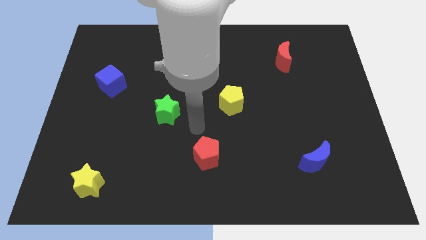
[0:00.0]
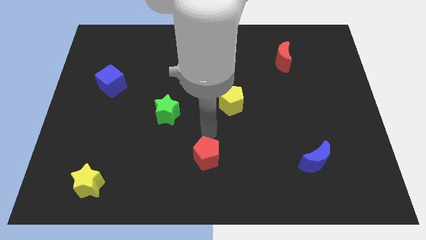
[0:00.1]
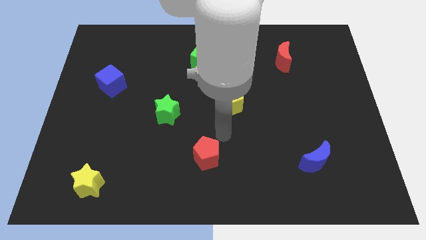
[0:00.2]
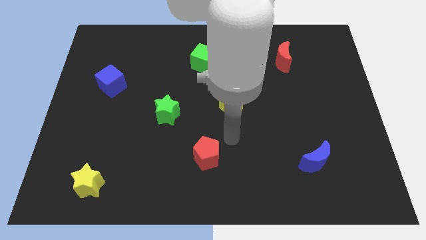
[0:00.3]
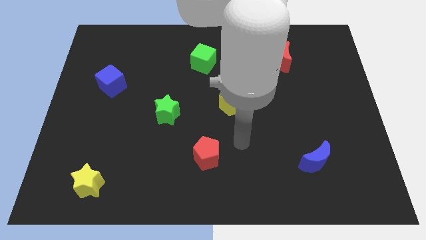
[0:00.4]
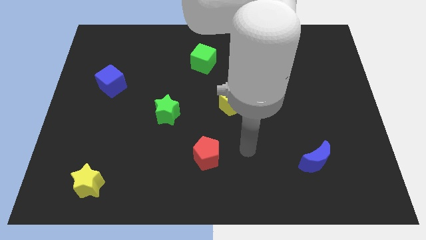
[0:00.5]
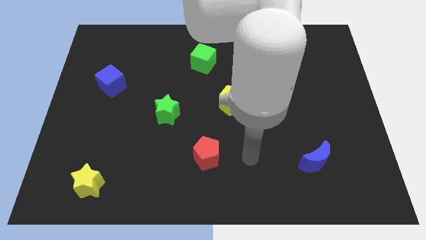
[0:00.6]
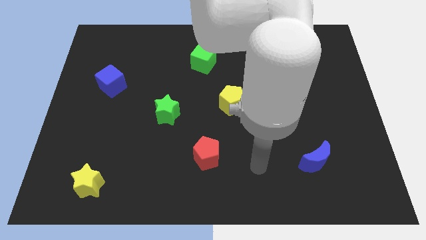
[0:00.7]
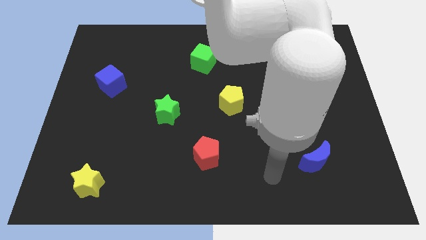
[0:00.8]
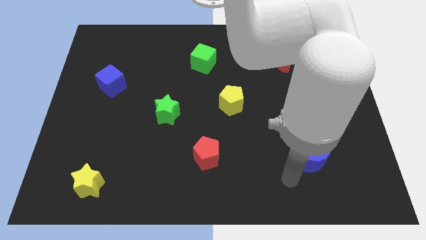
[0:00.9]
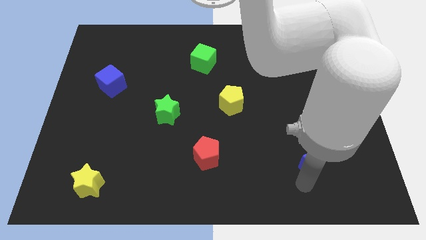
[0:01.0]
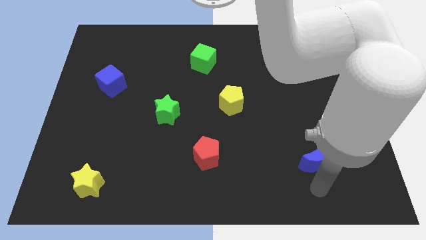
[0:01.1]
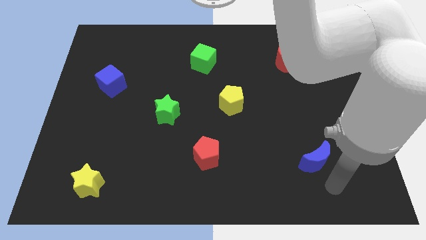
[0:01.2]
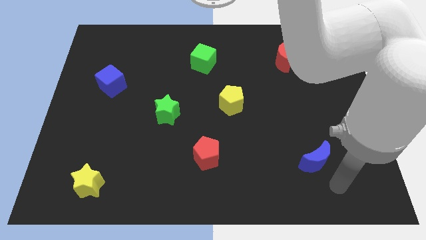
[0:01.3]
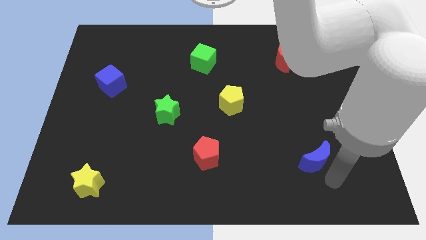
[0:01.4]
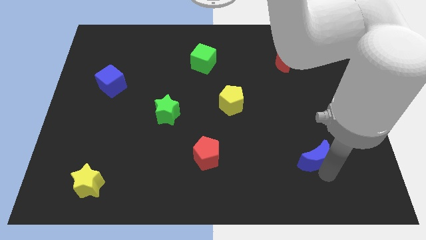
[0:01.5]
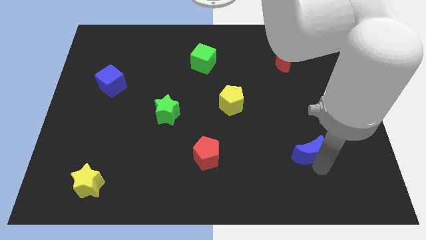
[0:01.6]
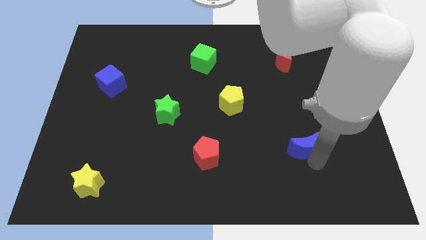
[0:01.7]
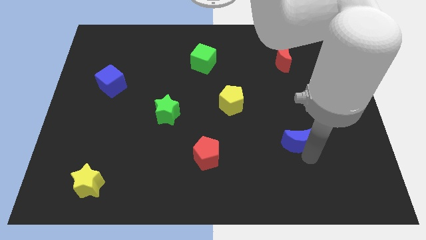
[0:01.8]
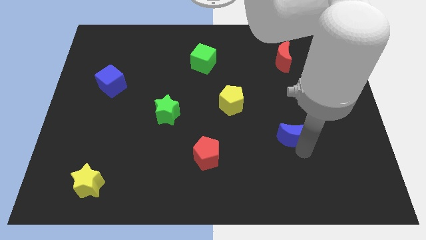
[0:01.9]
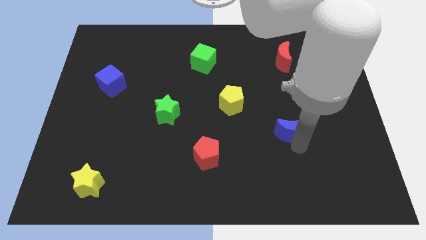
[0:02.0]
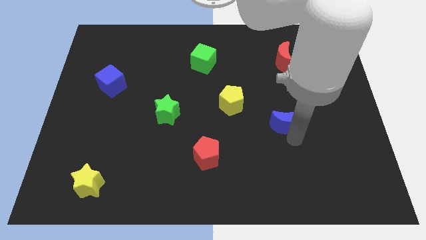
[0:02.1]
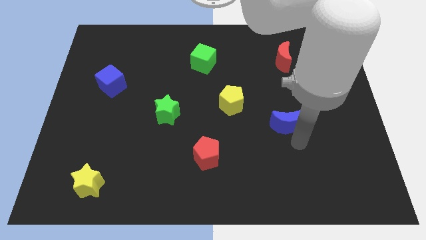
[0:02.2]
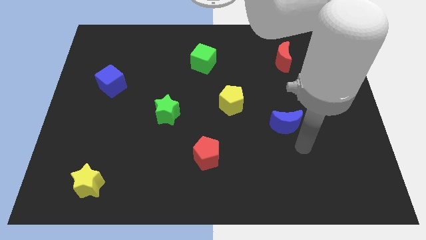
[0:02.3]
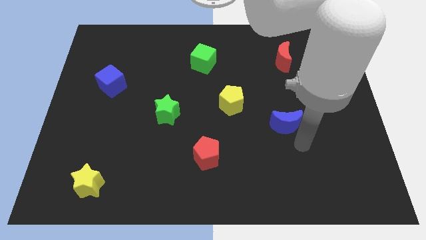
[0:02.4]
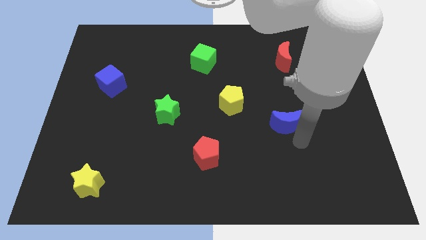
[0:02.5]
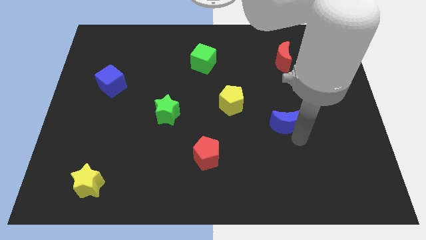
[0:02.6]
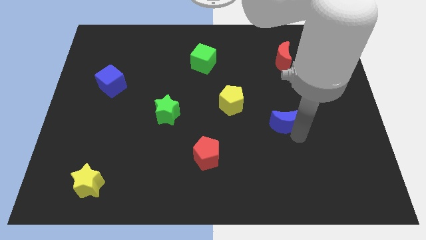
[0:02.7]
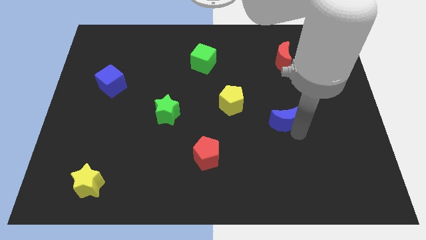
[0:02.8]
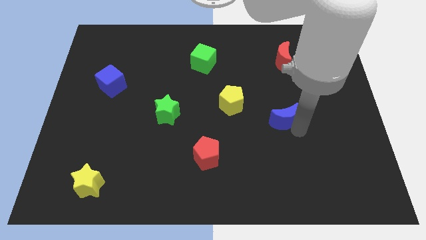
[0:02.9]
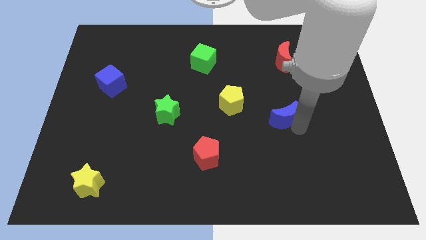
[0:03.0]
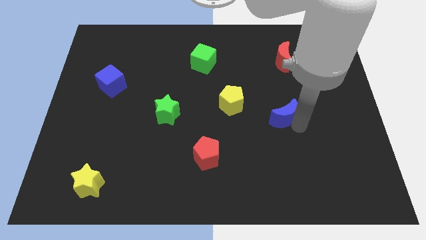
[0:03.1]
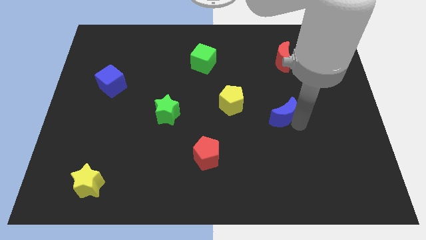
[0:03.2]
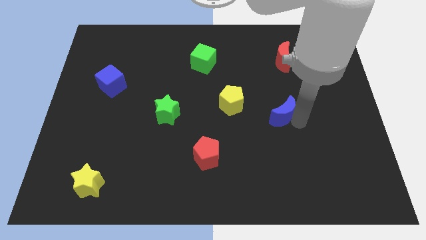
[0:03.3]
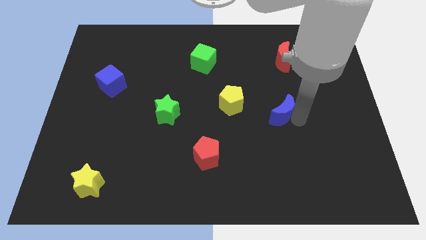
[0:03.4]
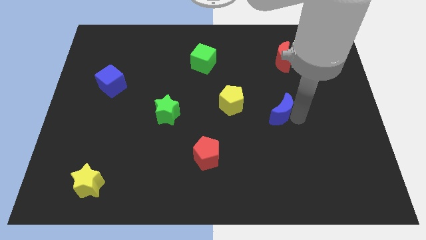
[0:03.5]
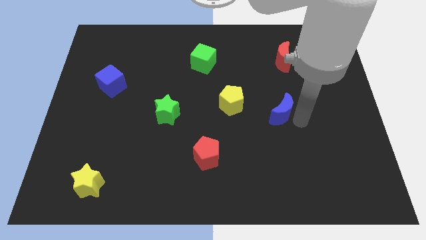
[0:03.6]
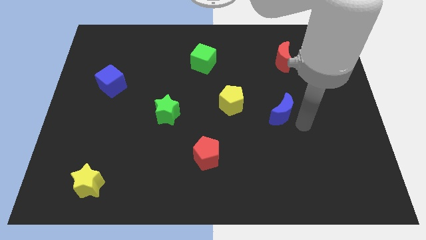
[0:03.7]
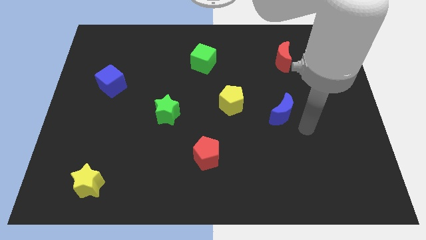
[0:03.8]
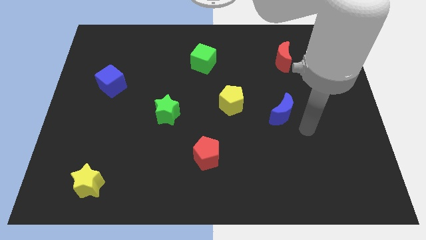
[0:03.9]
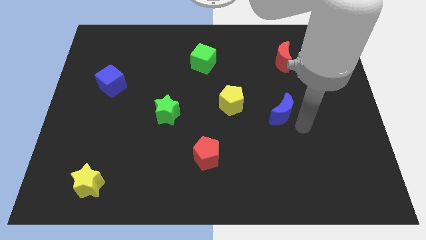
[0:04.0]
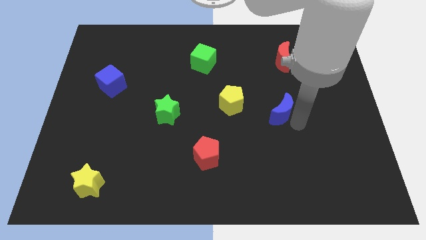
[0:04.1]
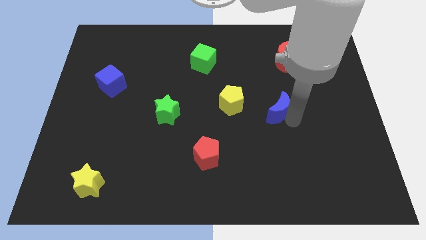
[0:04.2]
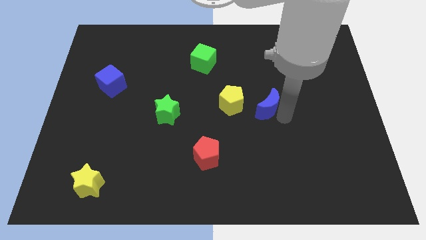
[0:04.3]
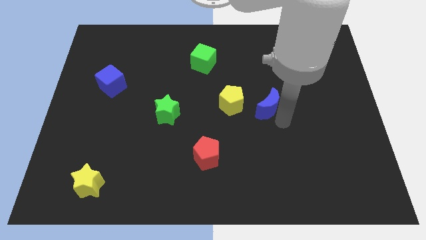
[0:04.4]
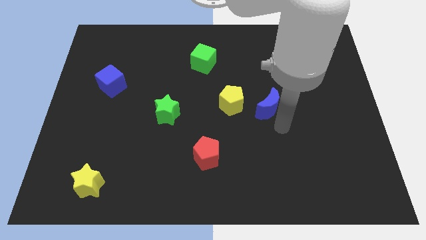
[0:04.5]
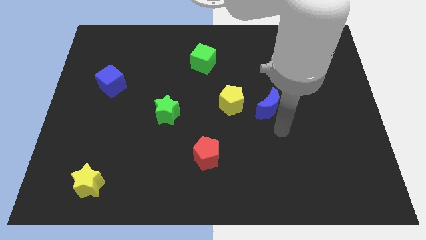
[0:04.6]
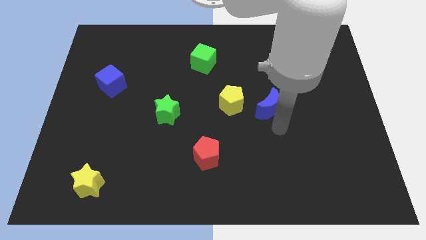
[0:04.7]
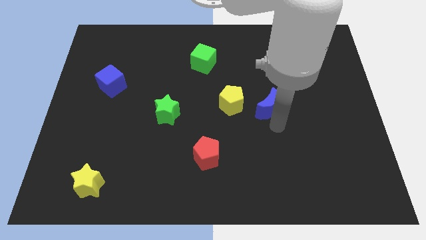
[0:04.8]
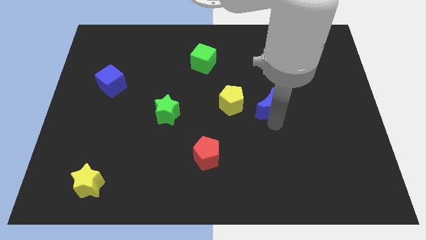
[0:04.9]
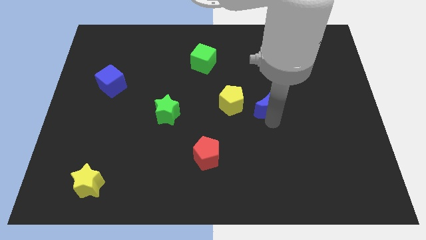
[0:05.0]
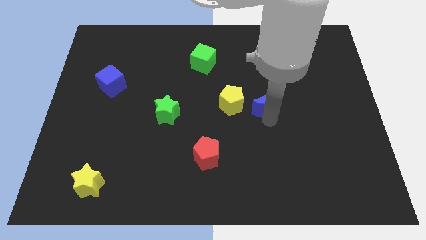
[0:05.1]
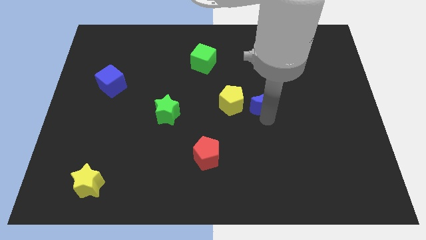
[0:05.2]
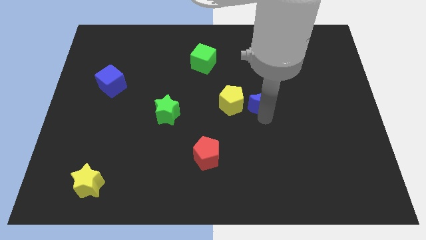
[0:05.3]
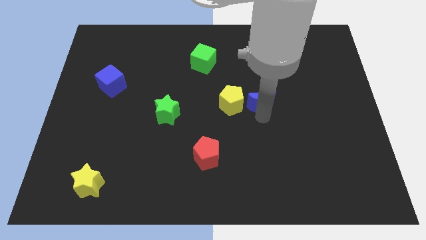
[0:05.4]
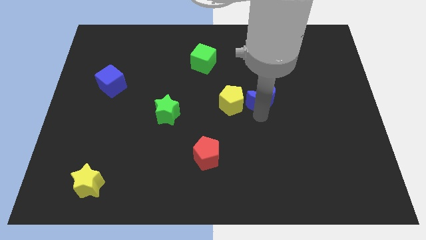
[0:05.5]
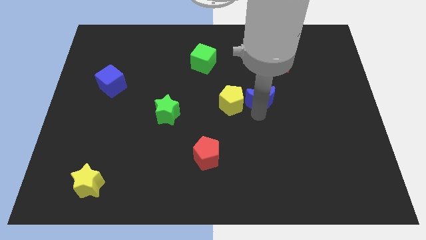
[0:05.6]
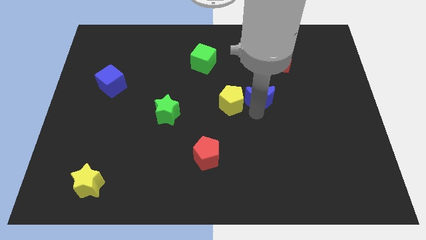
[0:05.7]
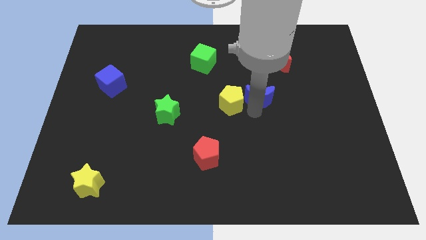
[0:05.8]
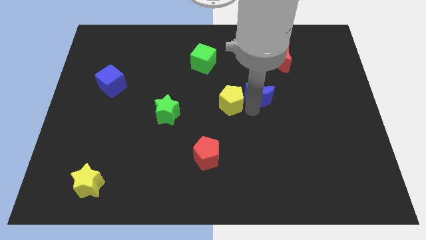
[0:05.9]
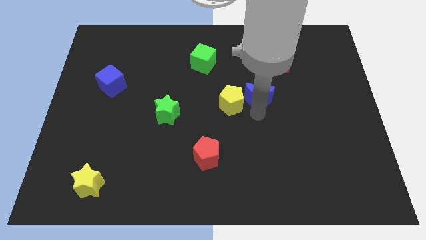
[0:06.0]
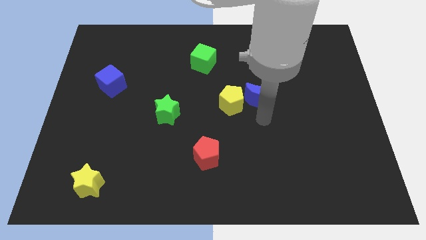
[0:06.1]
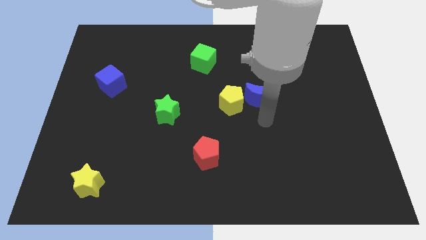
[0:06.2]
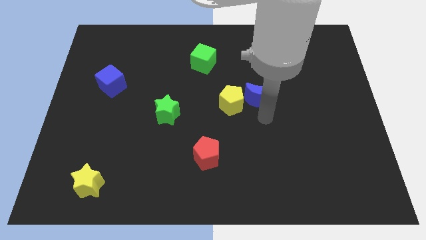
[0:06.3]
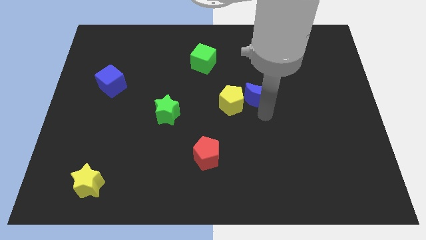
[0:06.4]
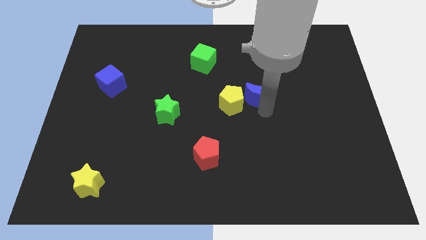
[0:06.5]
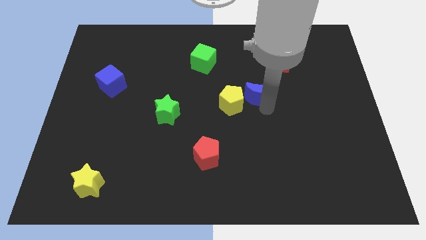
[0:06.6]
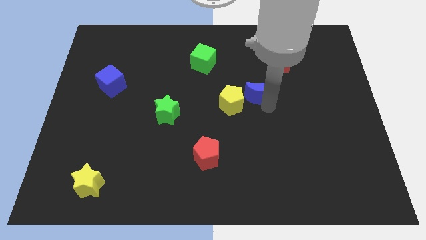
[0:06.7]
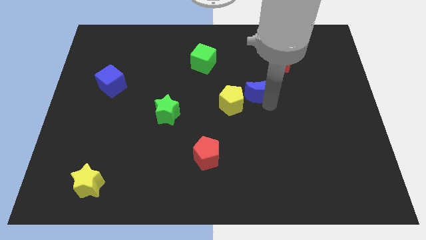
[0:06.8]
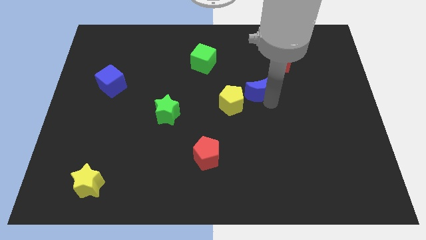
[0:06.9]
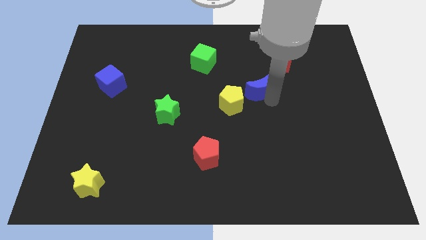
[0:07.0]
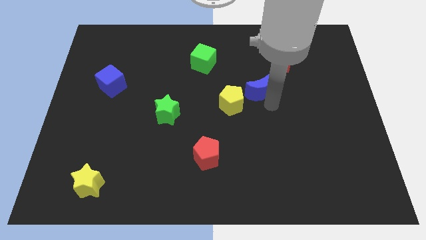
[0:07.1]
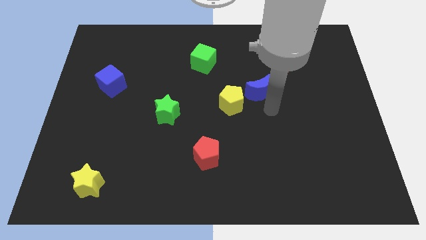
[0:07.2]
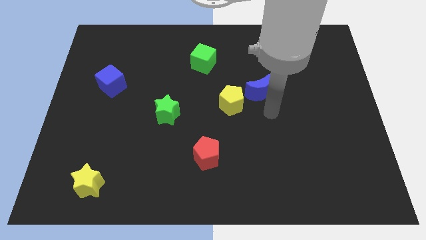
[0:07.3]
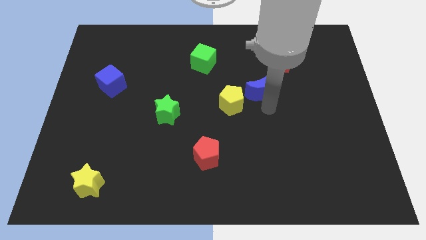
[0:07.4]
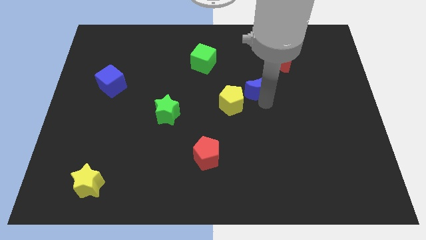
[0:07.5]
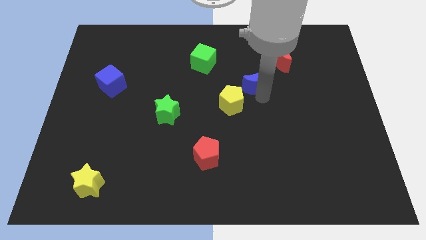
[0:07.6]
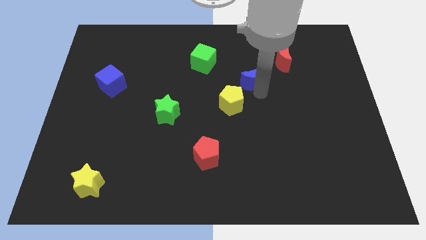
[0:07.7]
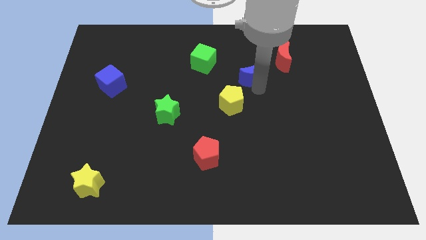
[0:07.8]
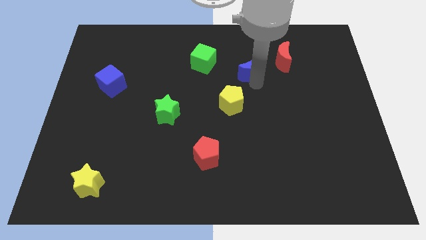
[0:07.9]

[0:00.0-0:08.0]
put the blue moon left of the red moon
